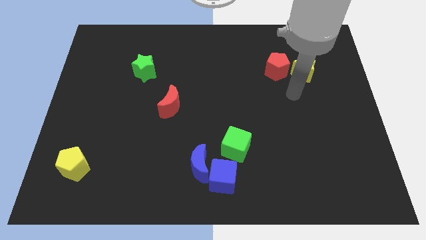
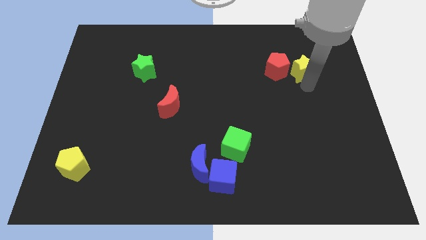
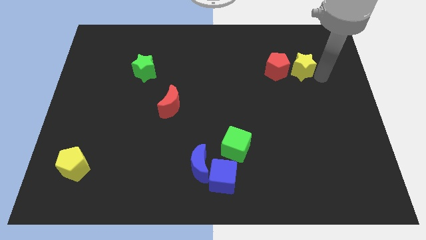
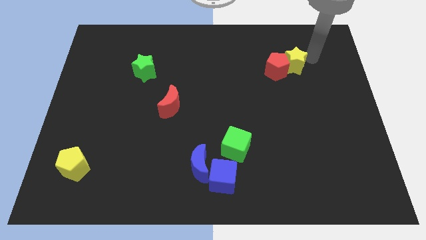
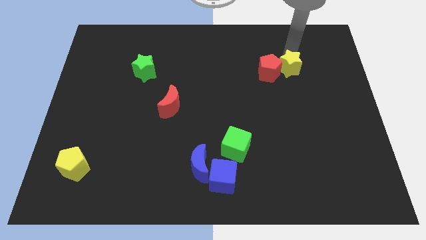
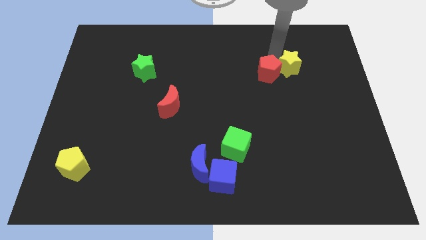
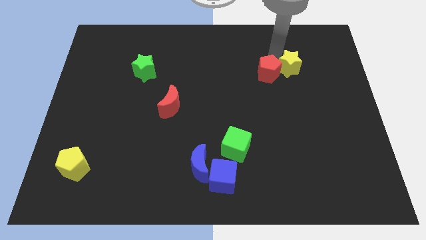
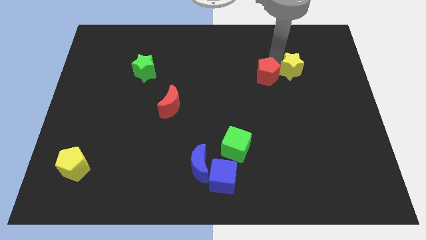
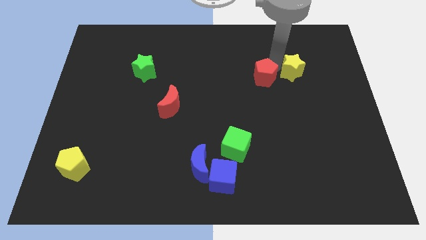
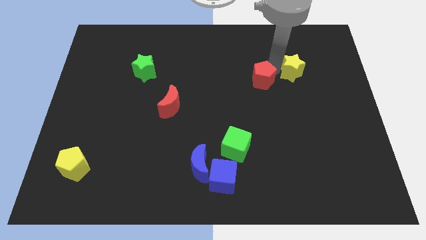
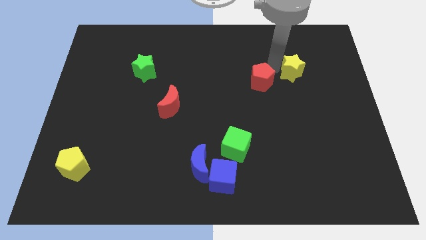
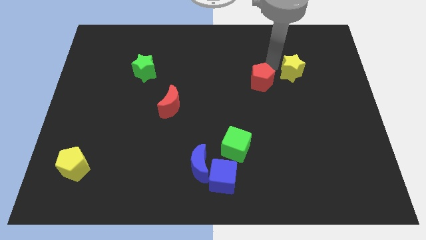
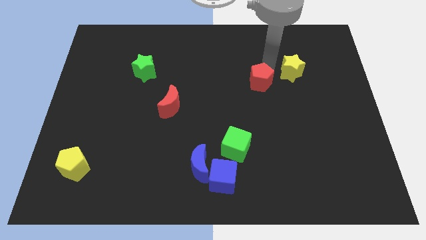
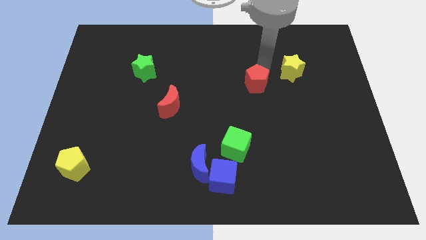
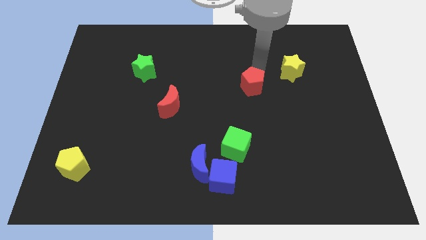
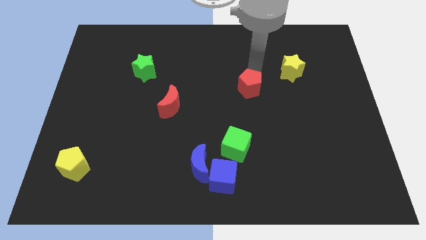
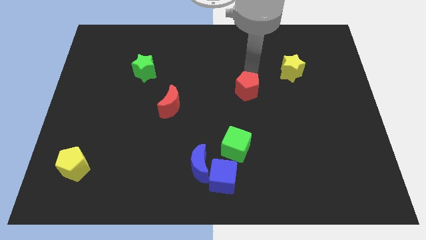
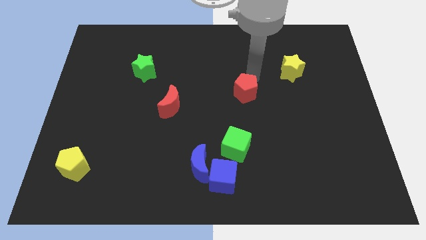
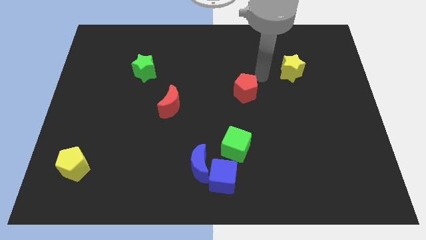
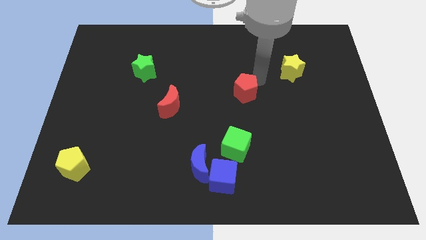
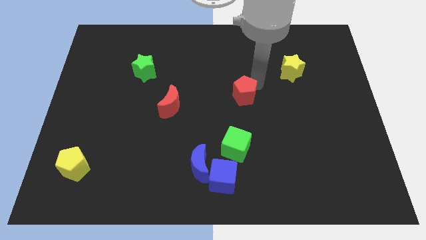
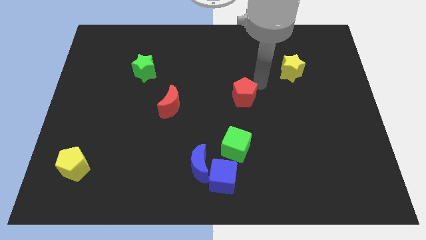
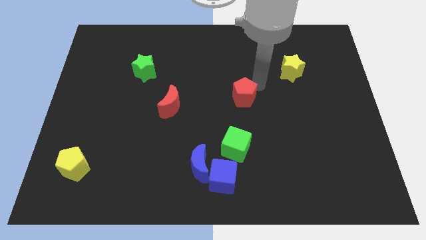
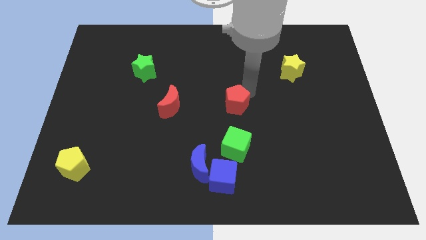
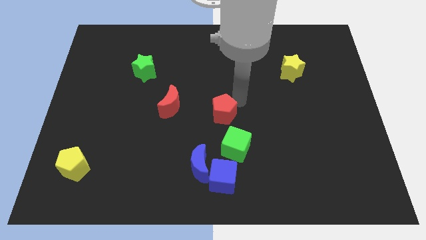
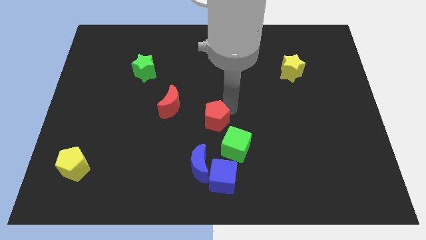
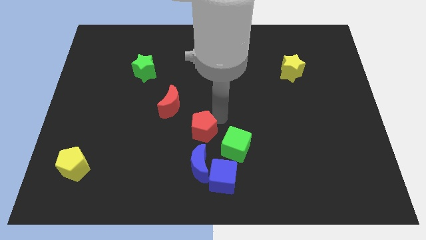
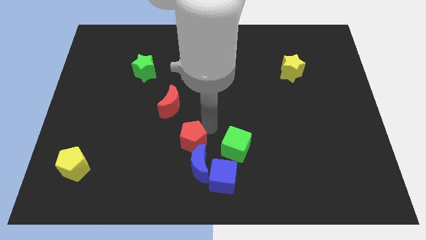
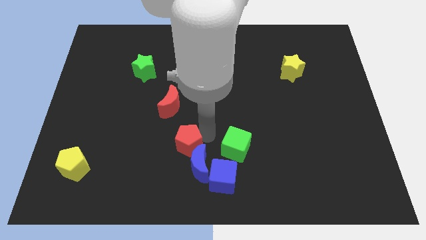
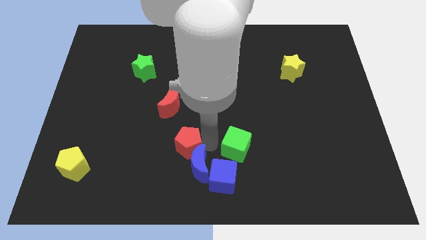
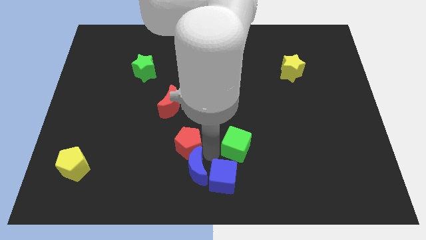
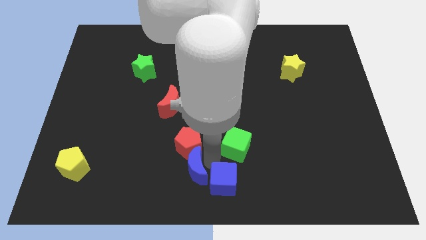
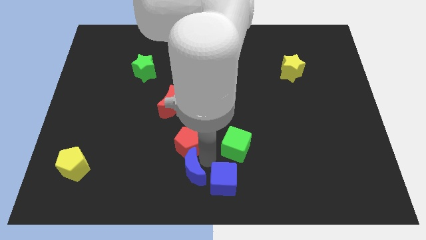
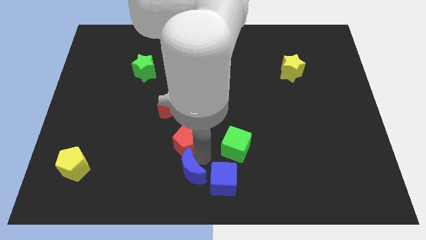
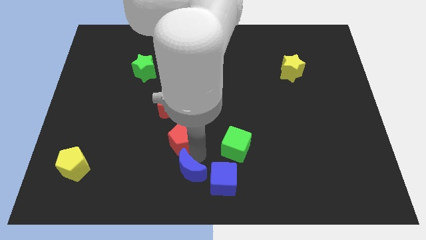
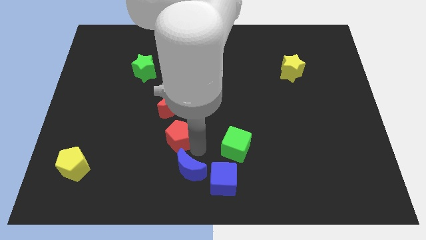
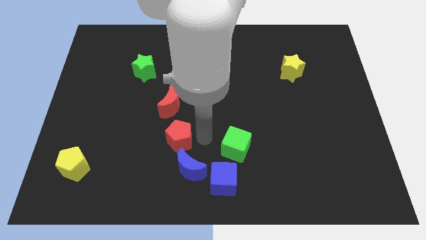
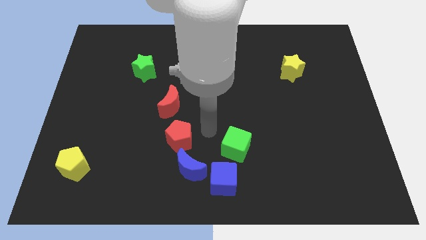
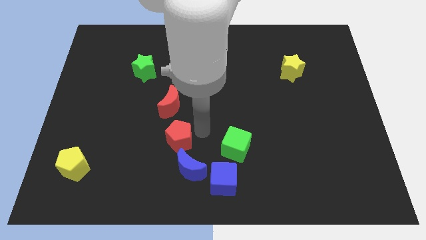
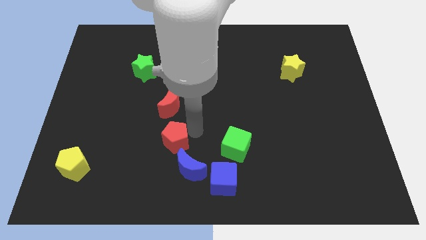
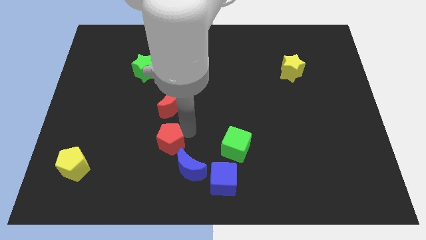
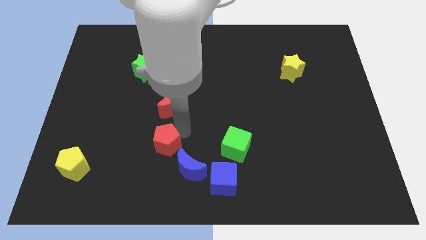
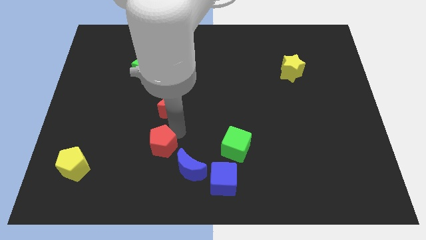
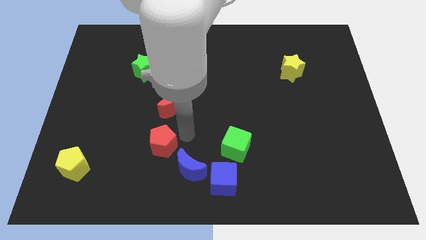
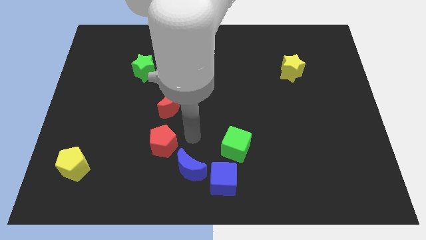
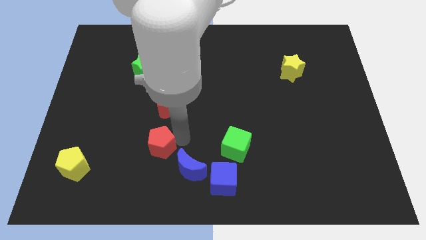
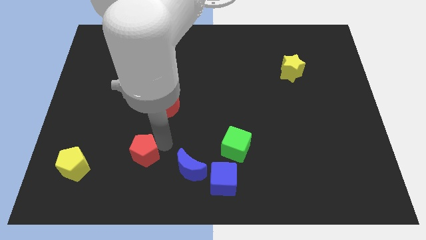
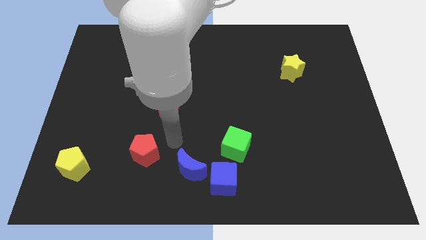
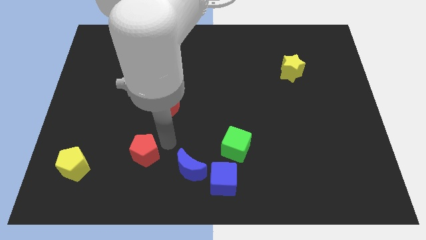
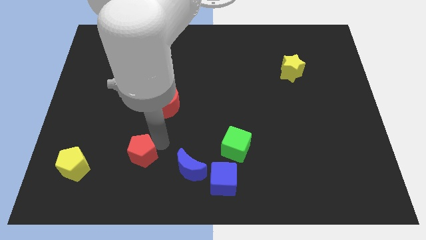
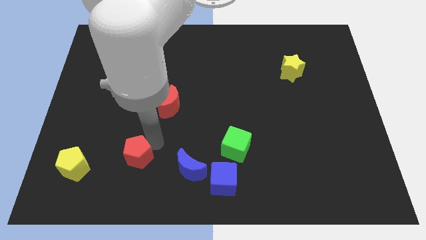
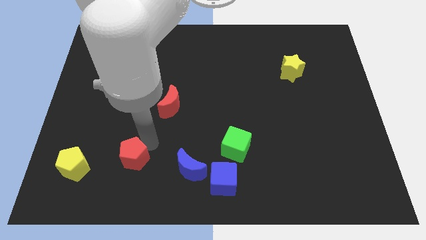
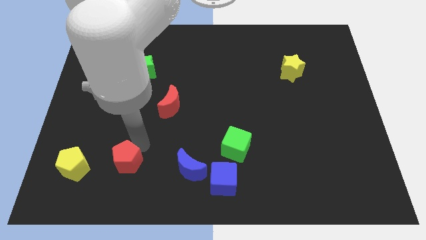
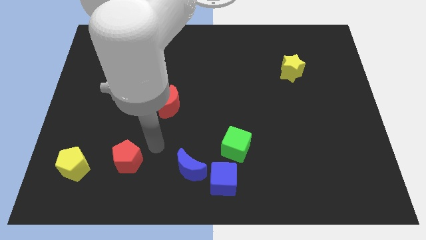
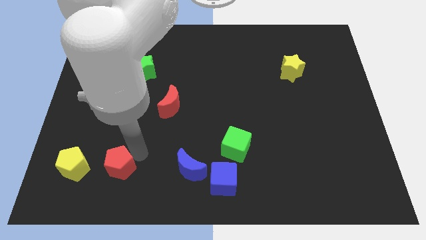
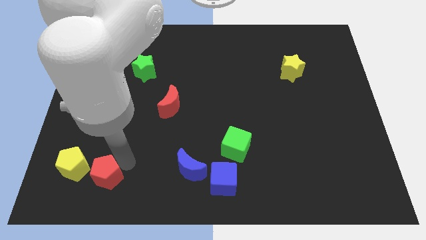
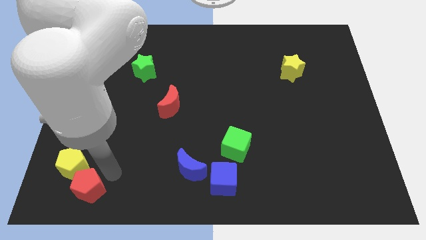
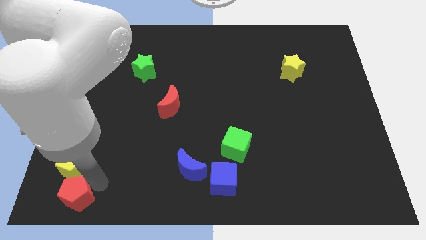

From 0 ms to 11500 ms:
move the red pentagon to the bottom left

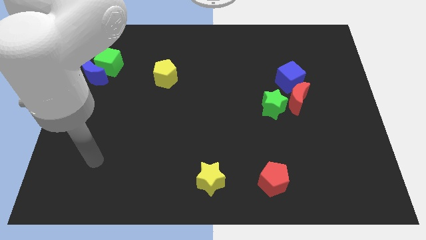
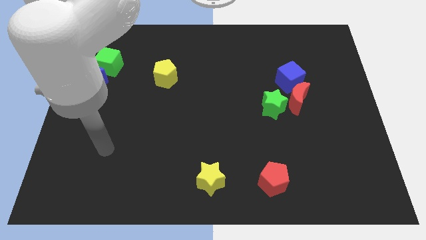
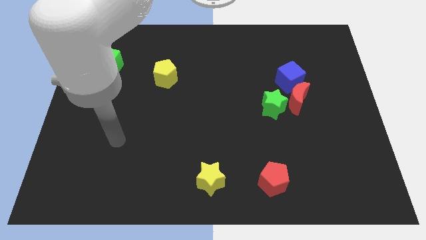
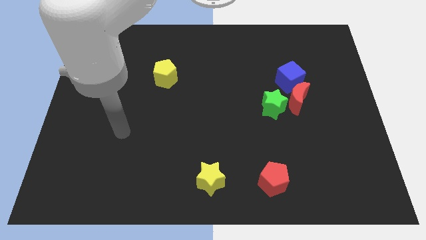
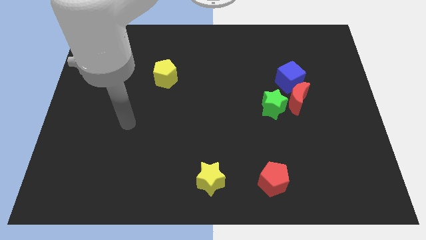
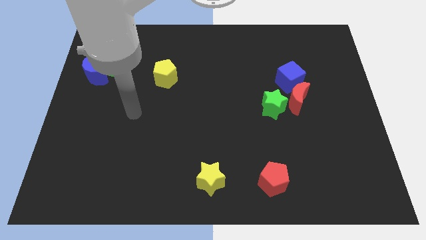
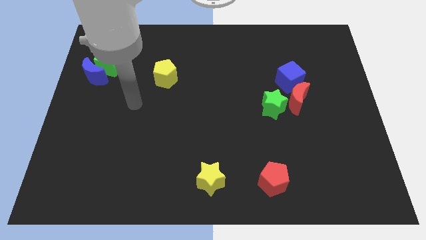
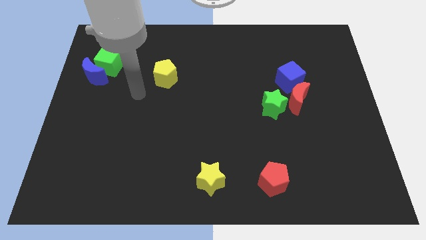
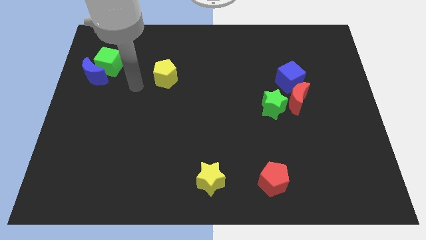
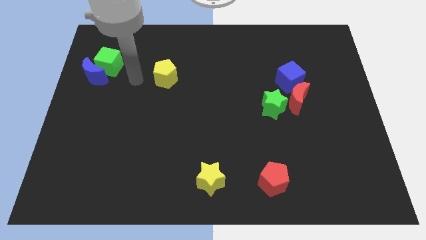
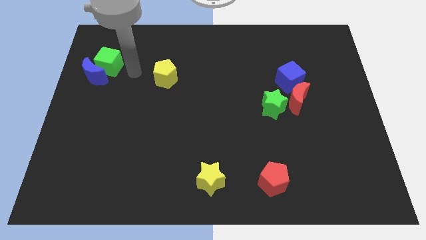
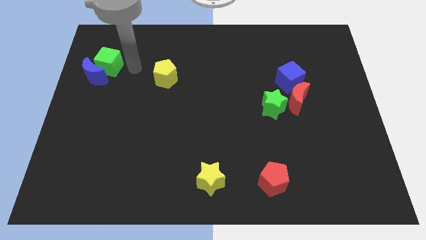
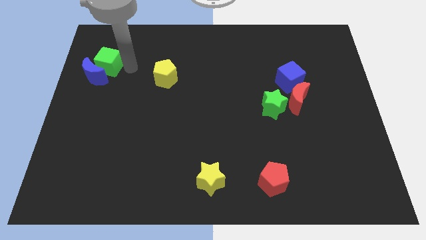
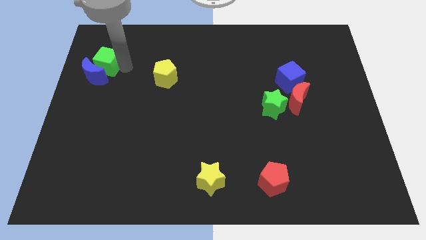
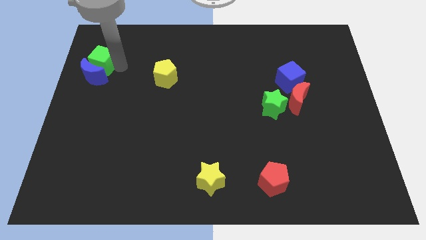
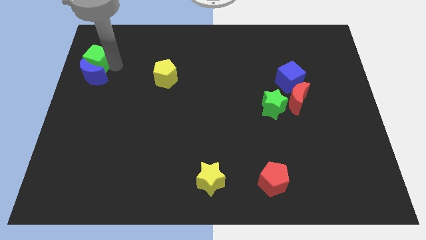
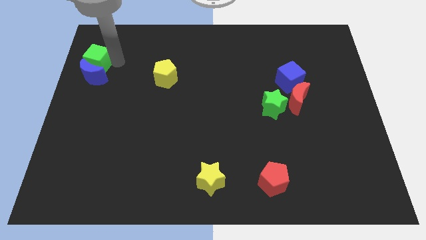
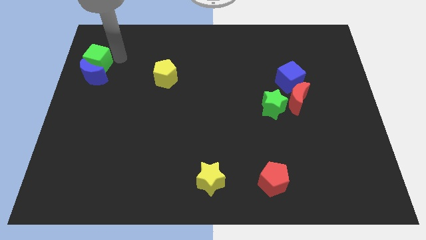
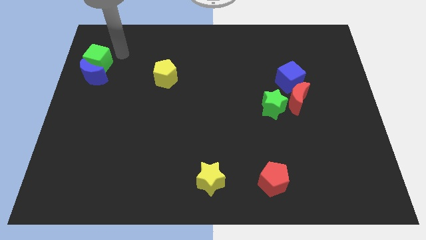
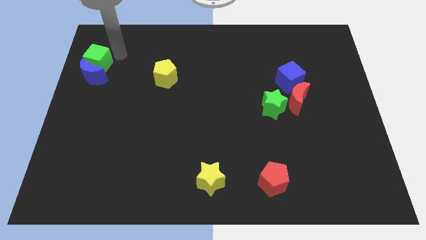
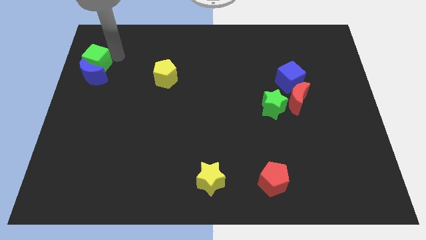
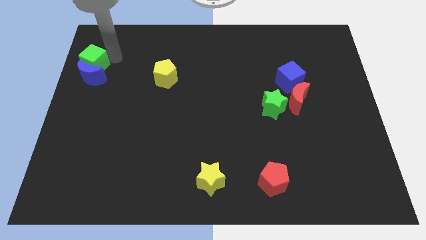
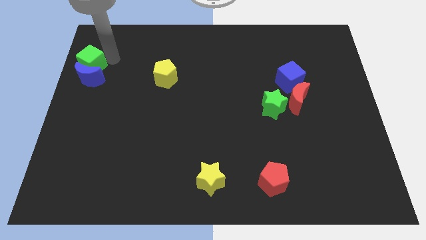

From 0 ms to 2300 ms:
move the green cube to the left side
